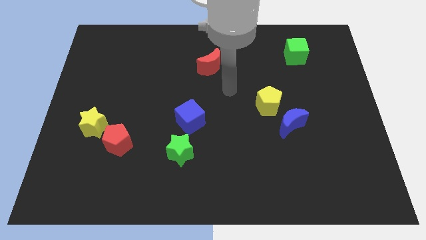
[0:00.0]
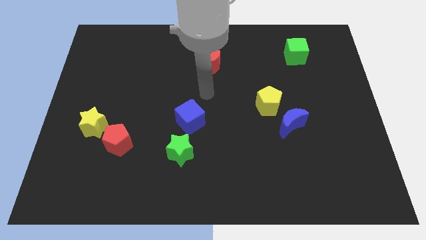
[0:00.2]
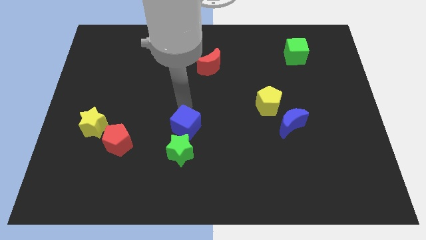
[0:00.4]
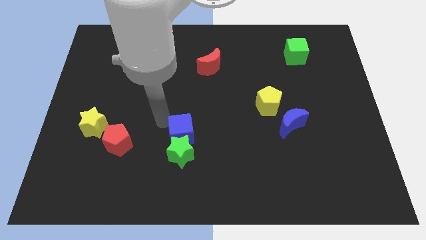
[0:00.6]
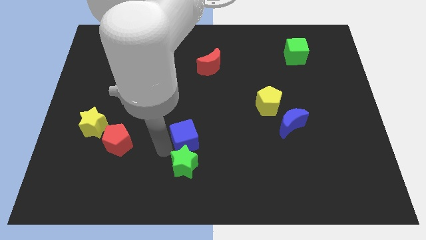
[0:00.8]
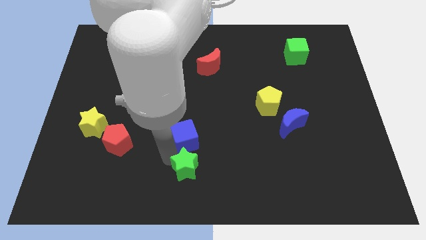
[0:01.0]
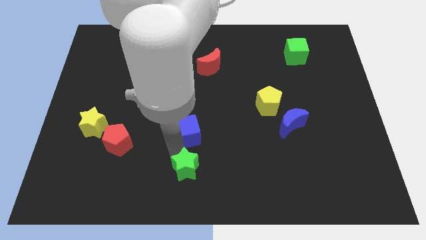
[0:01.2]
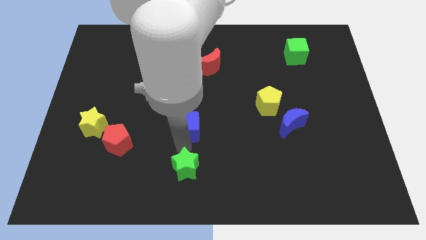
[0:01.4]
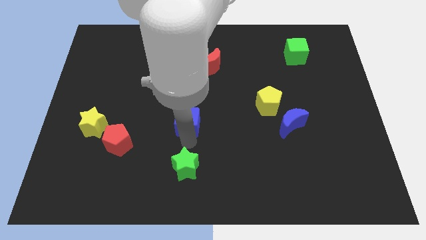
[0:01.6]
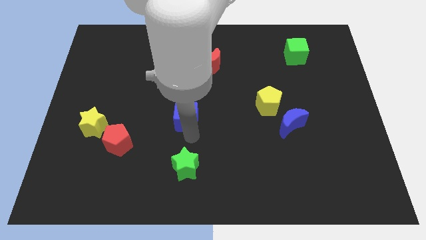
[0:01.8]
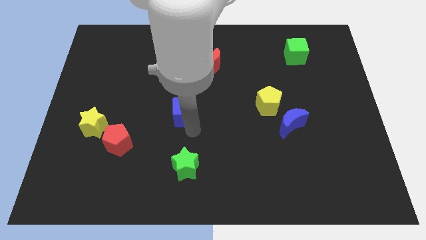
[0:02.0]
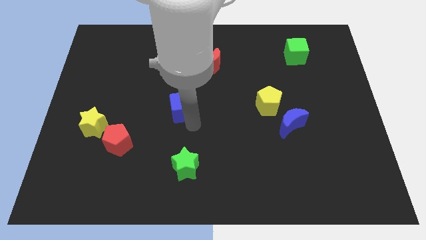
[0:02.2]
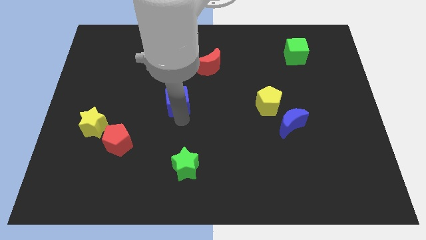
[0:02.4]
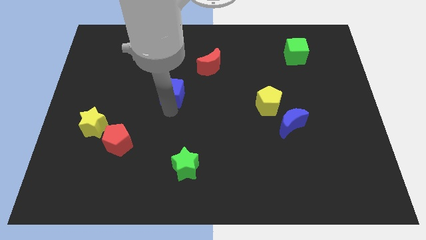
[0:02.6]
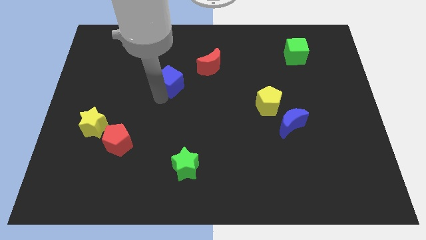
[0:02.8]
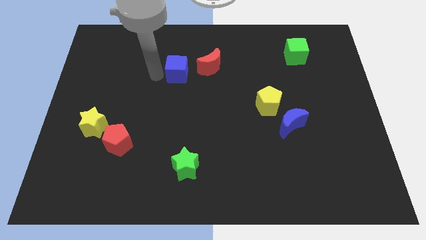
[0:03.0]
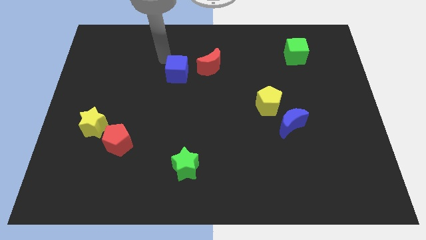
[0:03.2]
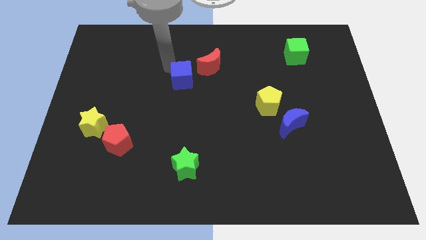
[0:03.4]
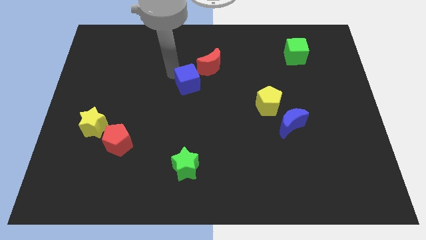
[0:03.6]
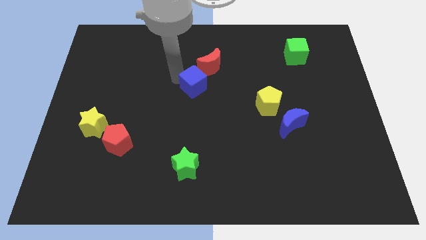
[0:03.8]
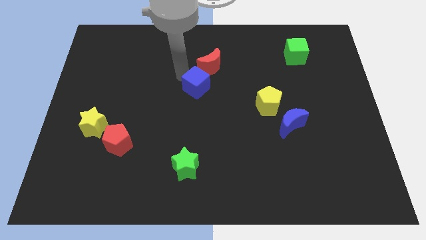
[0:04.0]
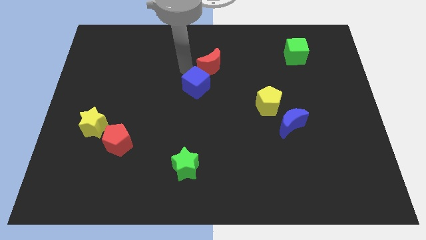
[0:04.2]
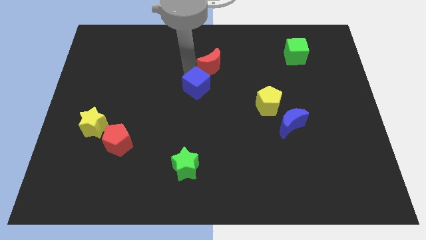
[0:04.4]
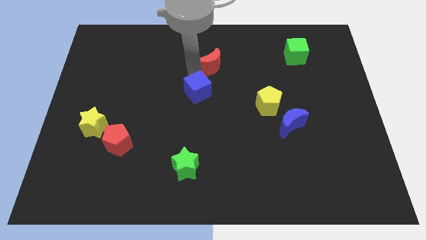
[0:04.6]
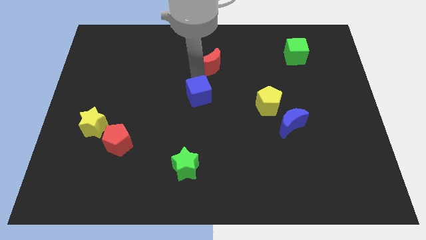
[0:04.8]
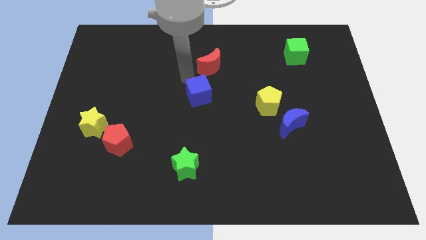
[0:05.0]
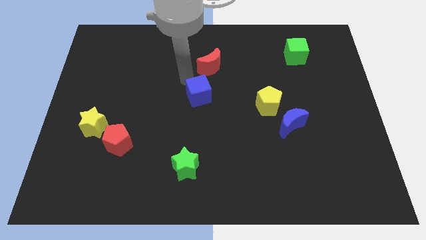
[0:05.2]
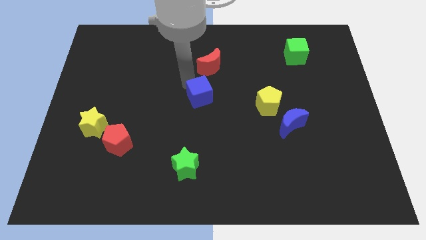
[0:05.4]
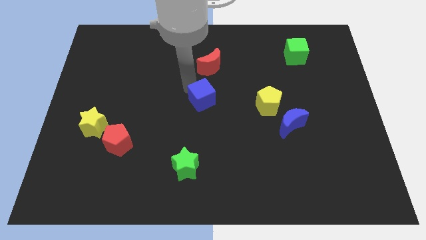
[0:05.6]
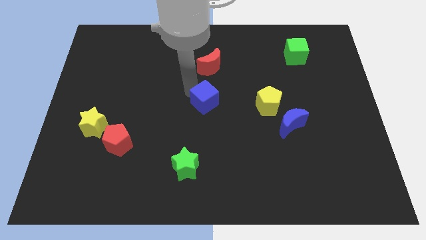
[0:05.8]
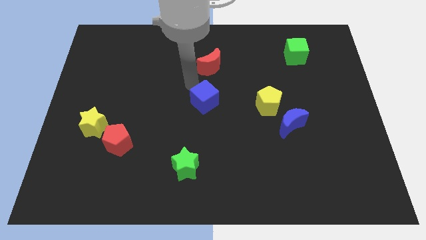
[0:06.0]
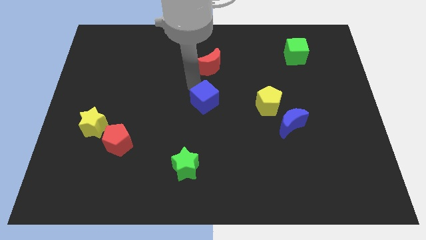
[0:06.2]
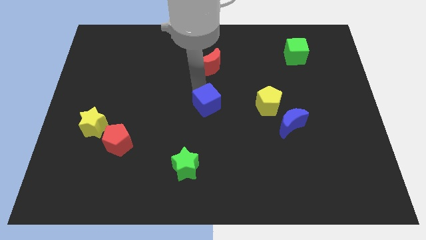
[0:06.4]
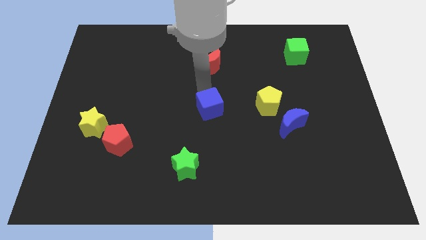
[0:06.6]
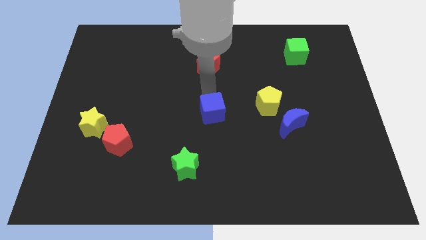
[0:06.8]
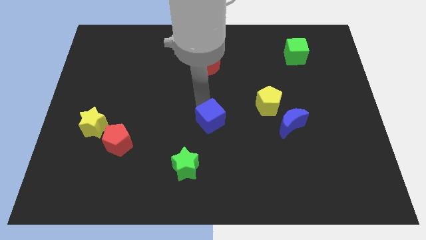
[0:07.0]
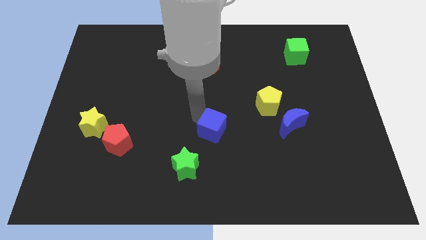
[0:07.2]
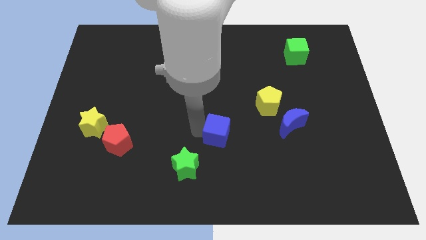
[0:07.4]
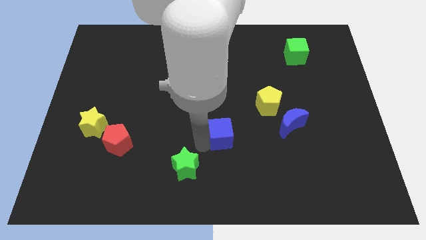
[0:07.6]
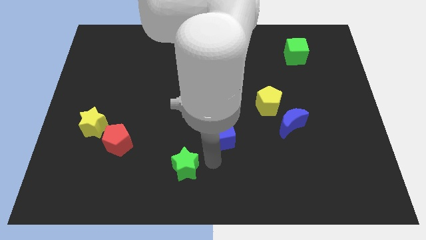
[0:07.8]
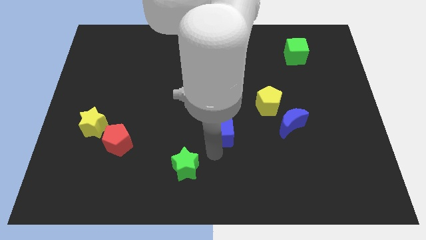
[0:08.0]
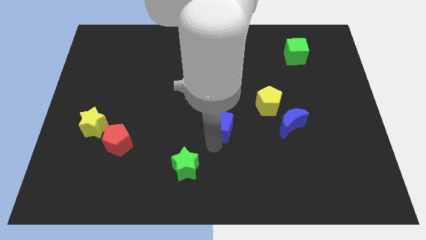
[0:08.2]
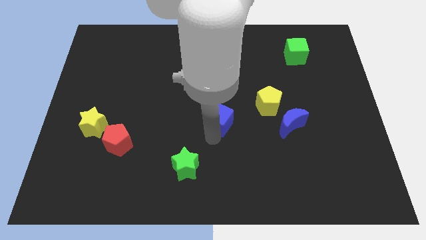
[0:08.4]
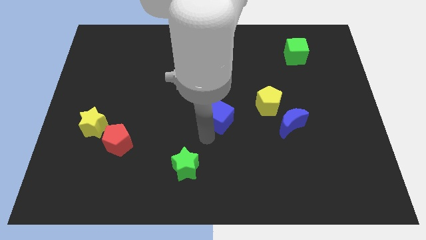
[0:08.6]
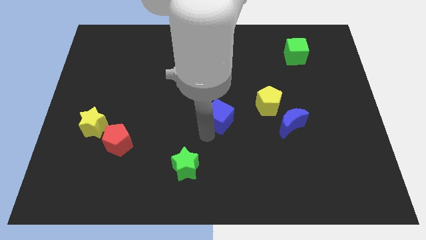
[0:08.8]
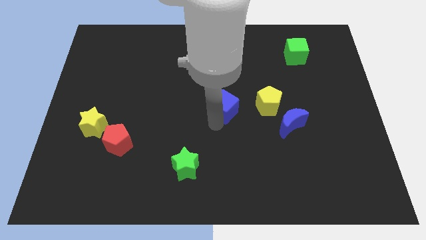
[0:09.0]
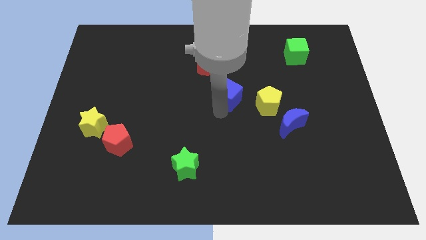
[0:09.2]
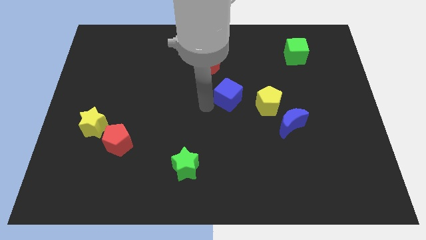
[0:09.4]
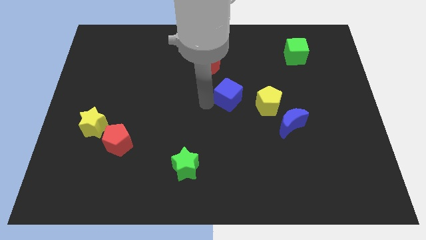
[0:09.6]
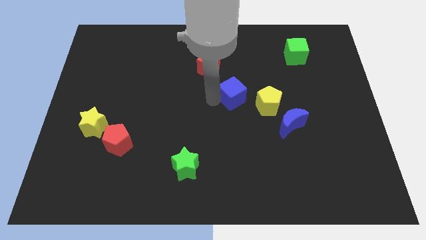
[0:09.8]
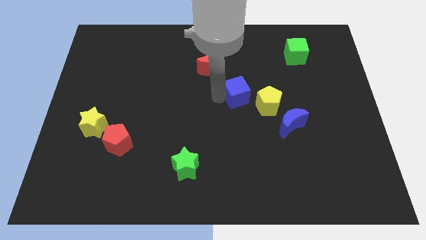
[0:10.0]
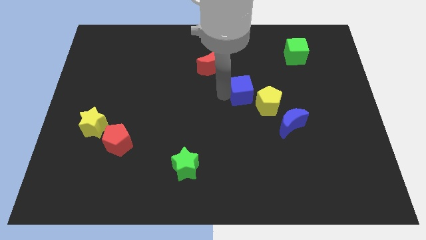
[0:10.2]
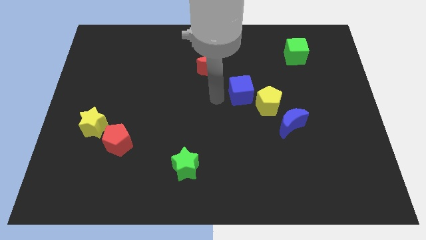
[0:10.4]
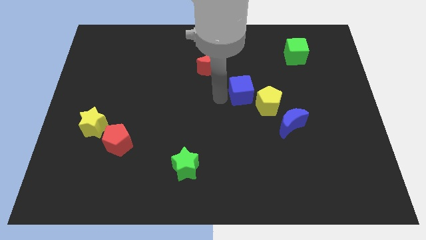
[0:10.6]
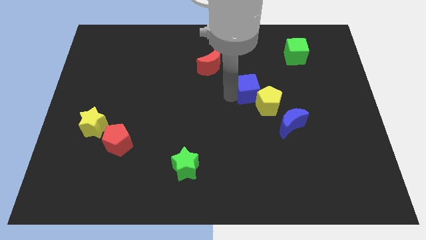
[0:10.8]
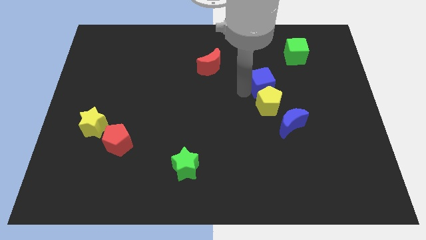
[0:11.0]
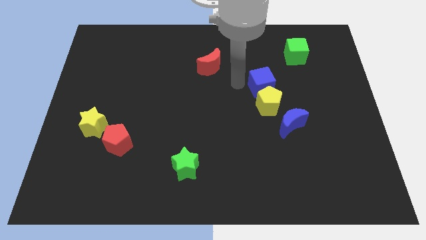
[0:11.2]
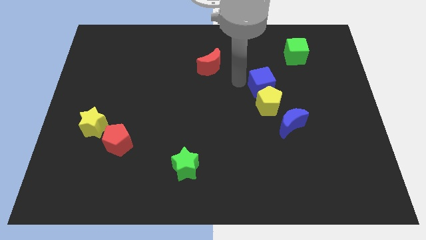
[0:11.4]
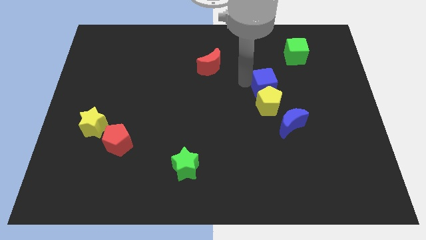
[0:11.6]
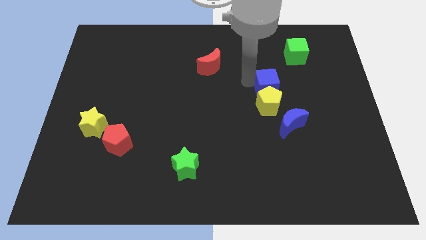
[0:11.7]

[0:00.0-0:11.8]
put the blue cube to the top side of the blue moon

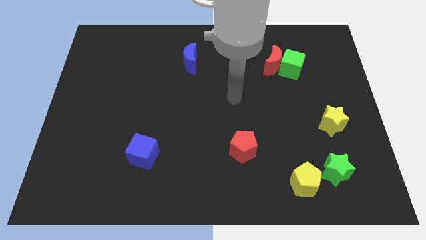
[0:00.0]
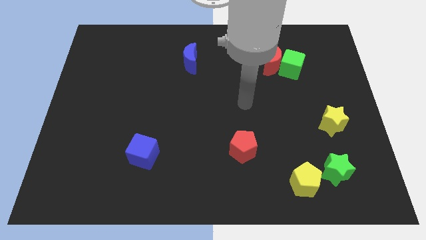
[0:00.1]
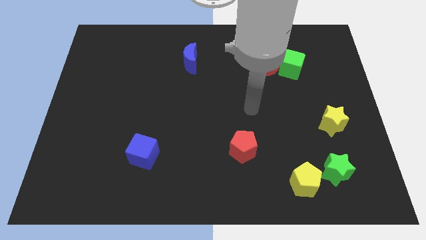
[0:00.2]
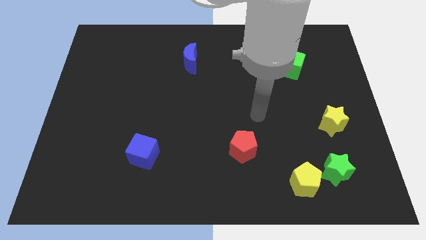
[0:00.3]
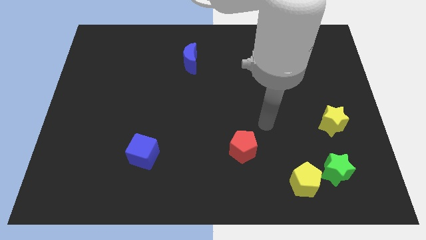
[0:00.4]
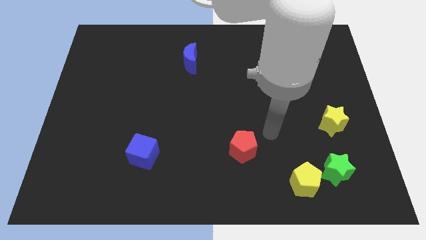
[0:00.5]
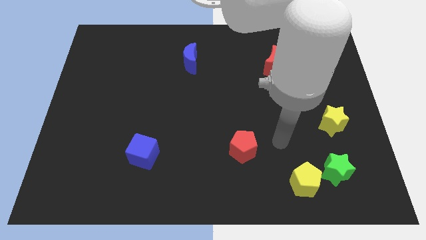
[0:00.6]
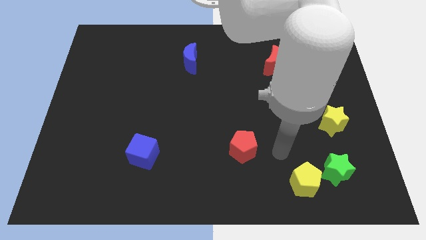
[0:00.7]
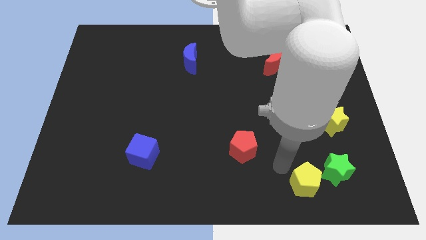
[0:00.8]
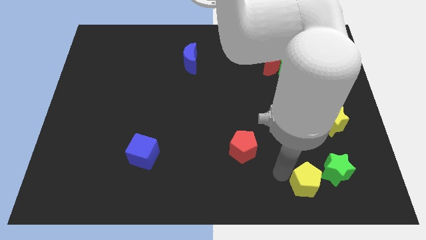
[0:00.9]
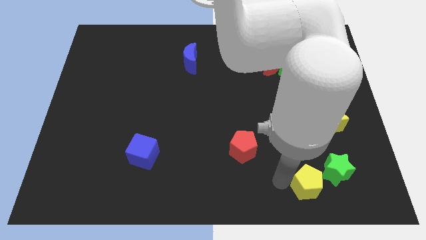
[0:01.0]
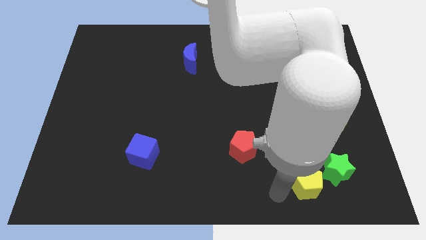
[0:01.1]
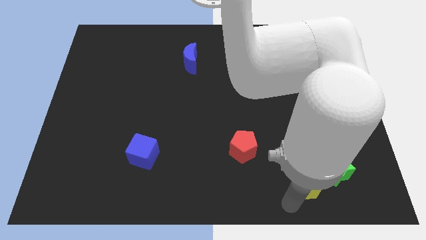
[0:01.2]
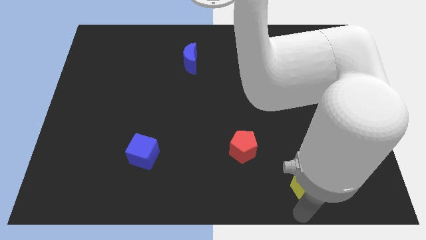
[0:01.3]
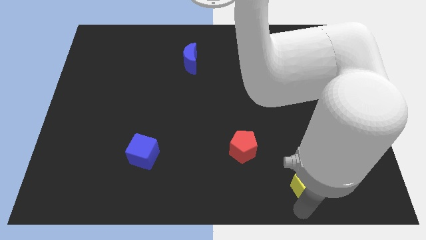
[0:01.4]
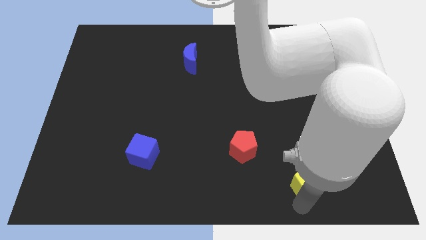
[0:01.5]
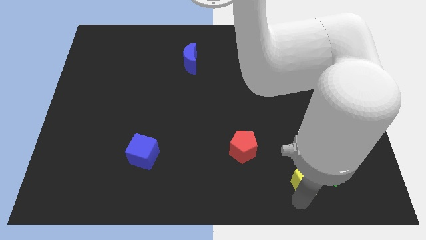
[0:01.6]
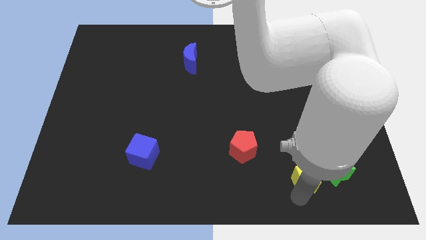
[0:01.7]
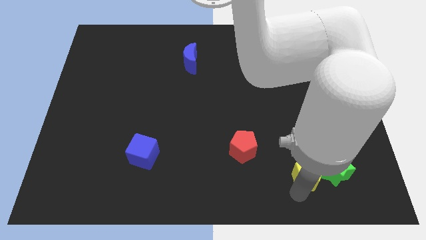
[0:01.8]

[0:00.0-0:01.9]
move the yellow pentagon to the top left of the green star
